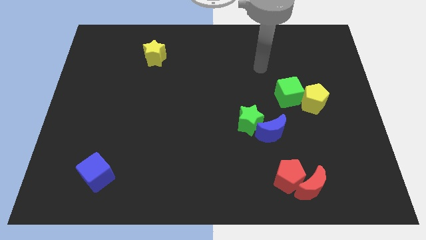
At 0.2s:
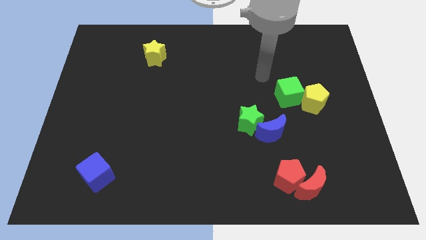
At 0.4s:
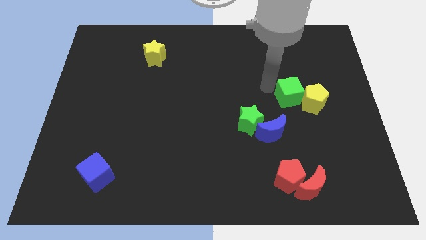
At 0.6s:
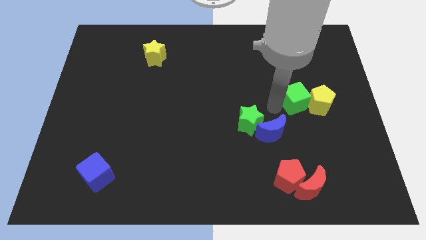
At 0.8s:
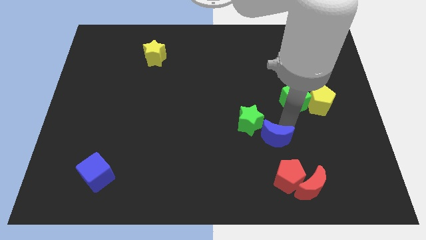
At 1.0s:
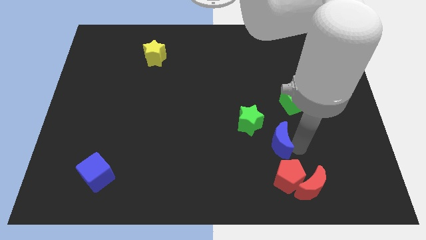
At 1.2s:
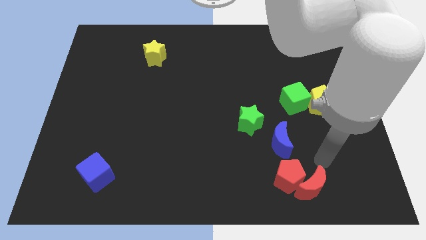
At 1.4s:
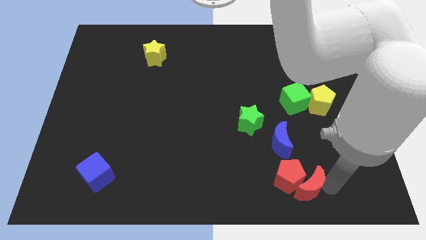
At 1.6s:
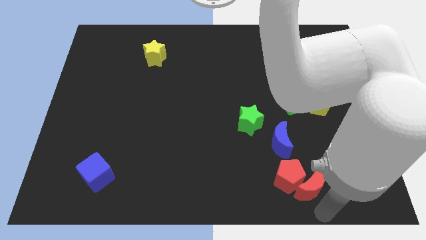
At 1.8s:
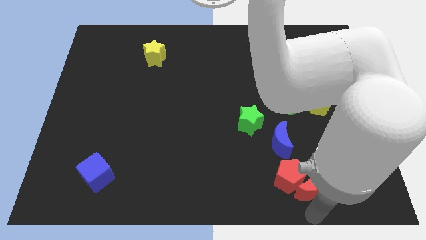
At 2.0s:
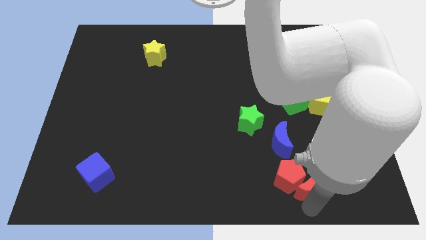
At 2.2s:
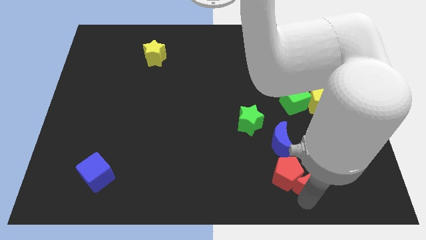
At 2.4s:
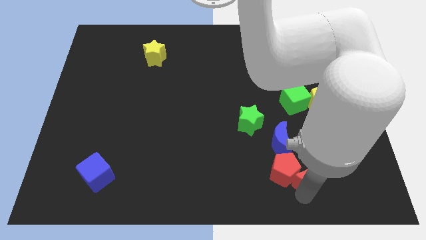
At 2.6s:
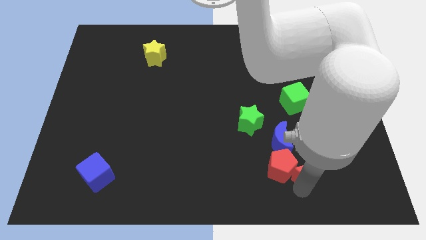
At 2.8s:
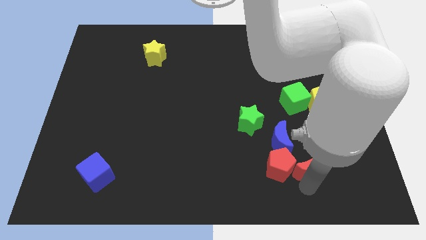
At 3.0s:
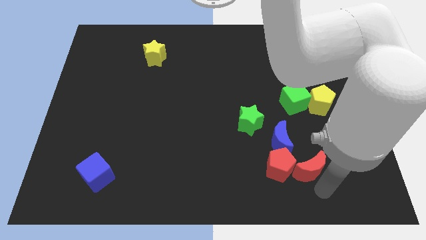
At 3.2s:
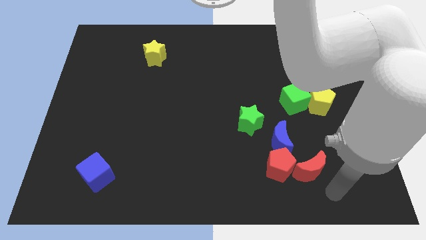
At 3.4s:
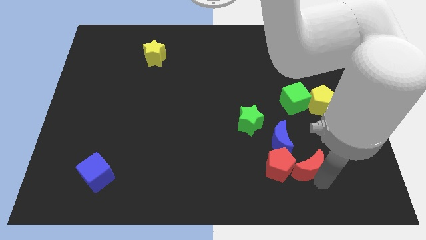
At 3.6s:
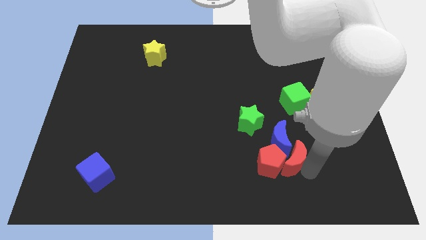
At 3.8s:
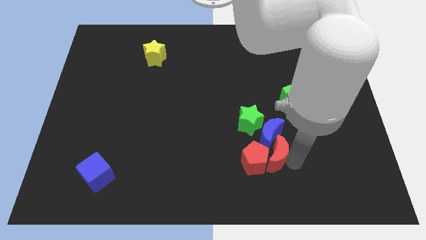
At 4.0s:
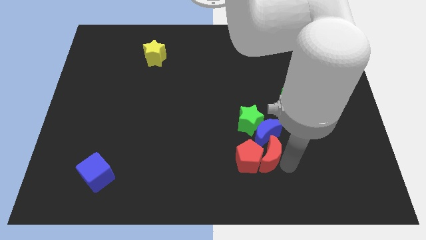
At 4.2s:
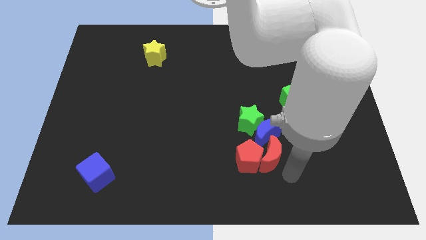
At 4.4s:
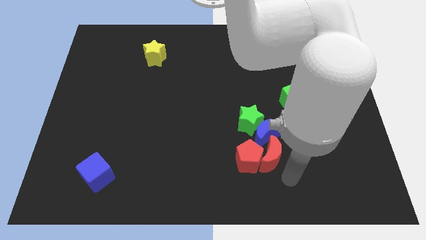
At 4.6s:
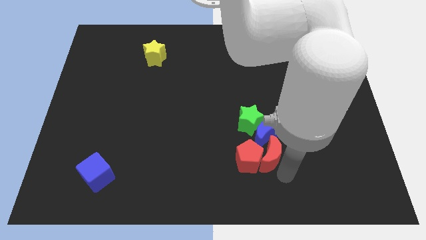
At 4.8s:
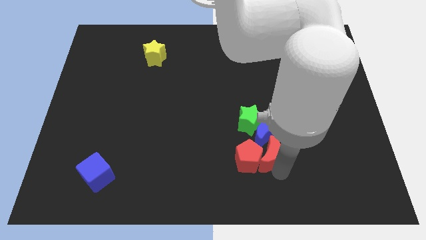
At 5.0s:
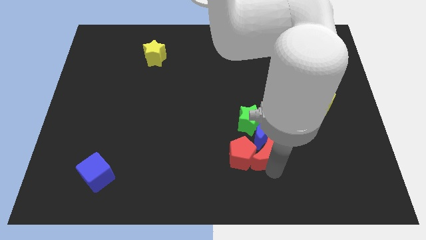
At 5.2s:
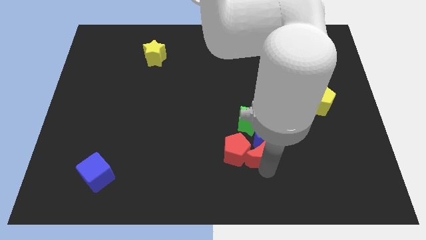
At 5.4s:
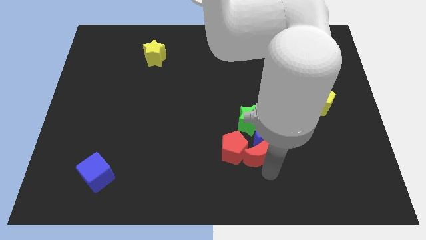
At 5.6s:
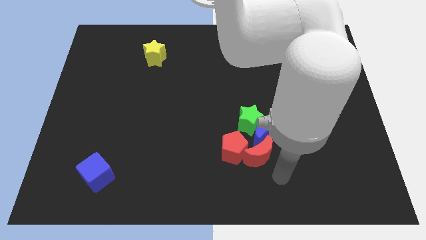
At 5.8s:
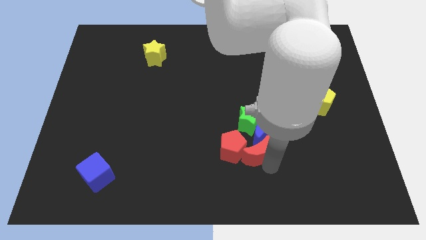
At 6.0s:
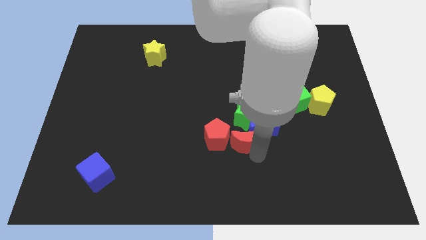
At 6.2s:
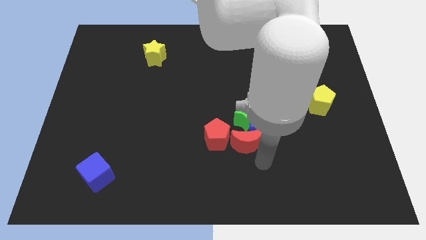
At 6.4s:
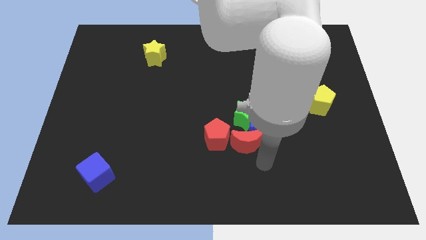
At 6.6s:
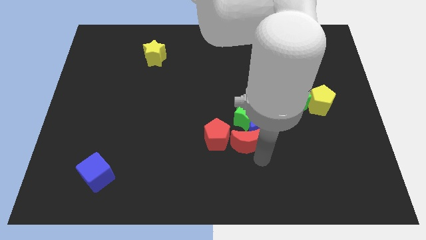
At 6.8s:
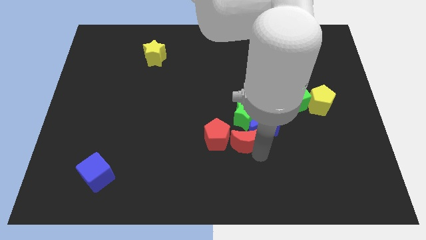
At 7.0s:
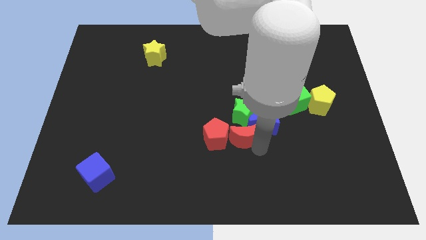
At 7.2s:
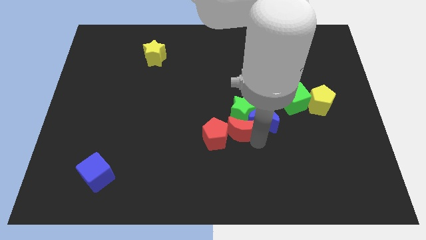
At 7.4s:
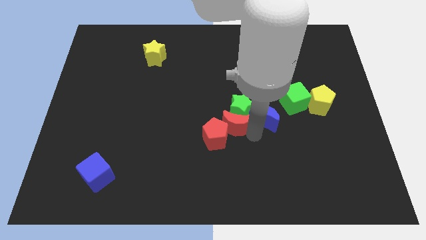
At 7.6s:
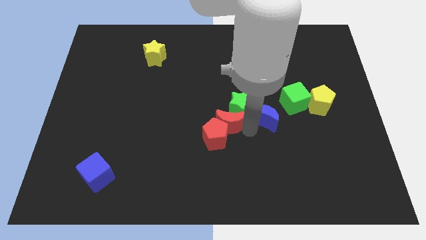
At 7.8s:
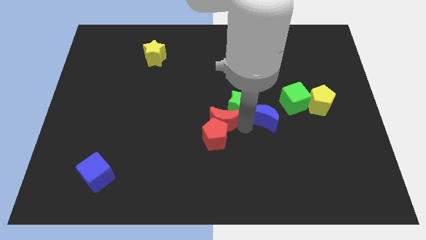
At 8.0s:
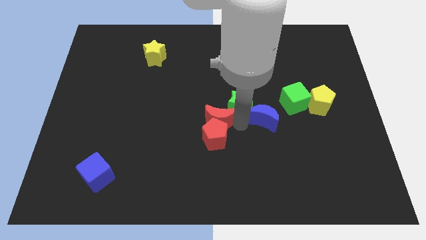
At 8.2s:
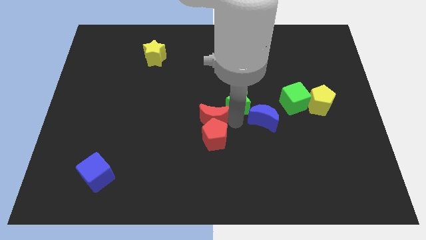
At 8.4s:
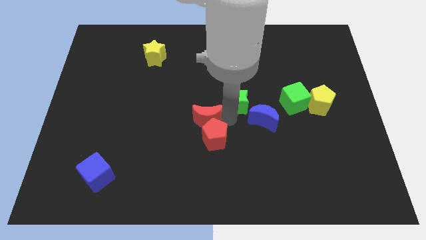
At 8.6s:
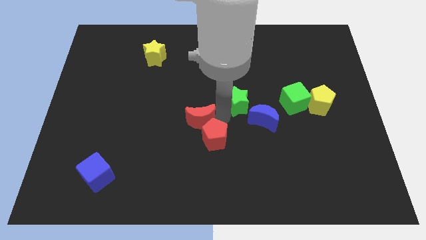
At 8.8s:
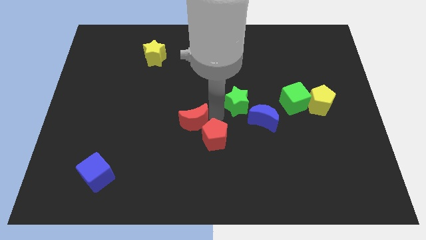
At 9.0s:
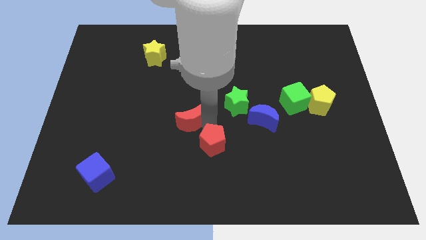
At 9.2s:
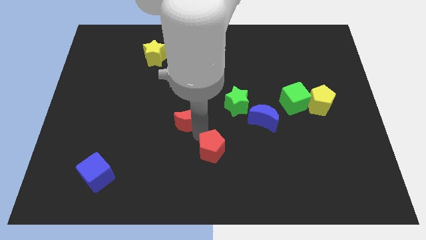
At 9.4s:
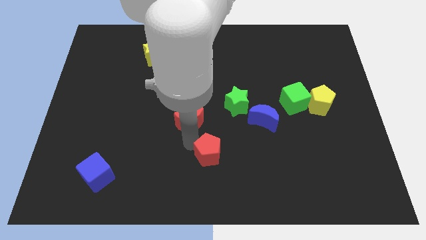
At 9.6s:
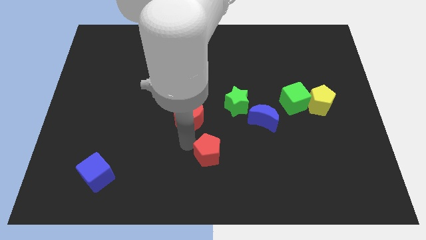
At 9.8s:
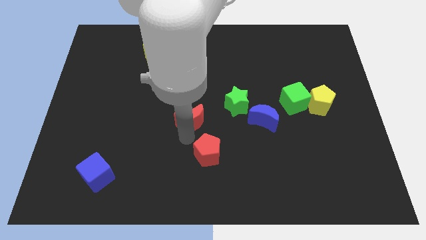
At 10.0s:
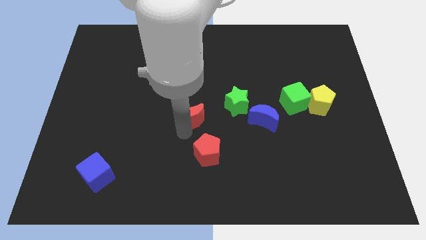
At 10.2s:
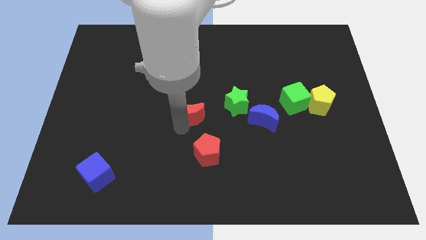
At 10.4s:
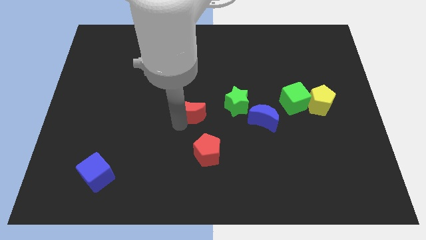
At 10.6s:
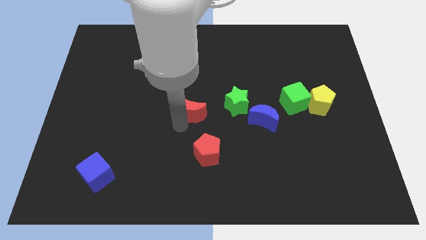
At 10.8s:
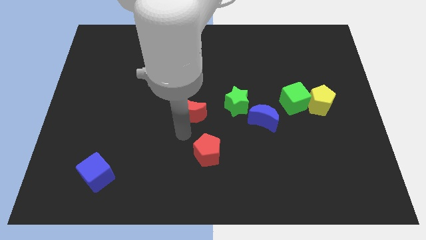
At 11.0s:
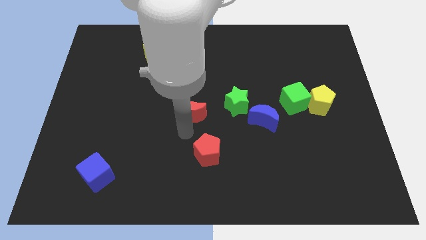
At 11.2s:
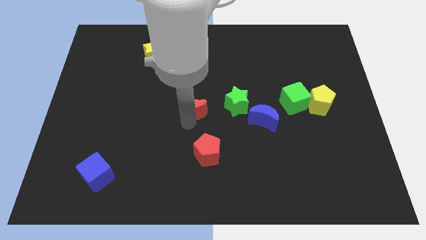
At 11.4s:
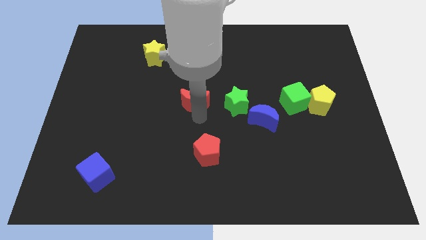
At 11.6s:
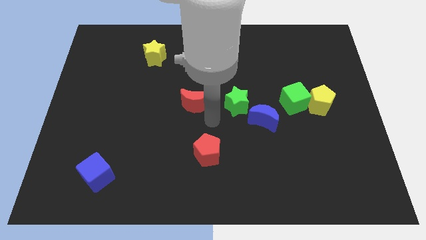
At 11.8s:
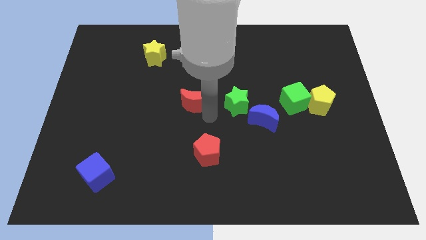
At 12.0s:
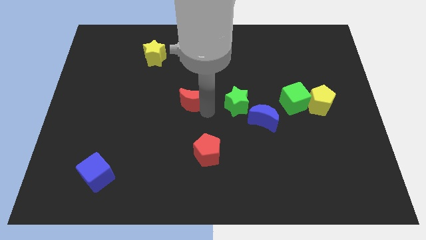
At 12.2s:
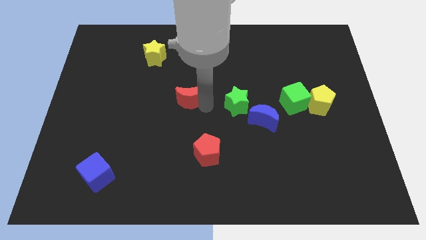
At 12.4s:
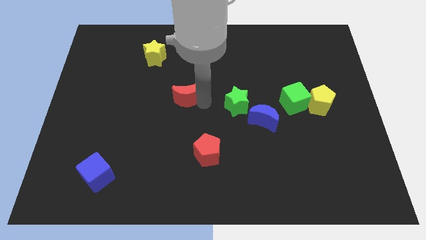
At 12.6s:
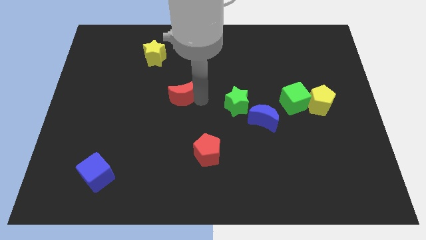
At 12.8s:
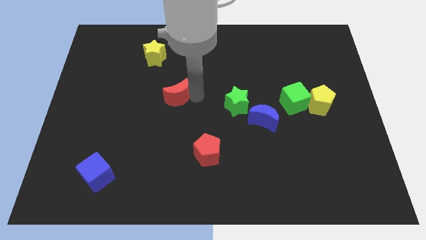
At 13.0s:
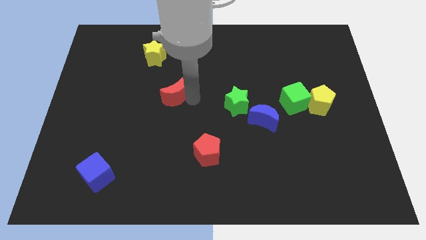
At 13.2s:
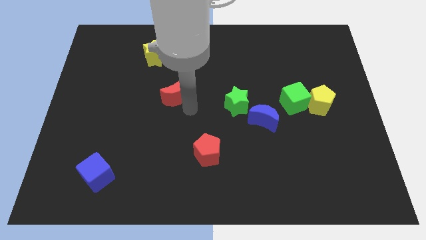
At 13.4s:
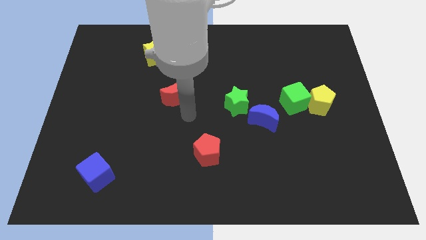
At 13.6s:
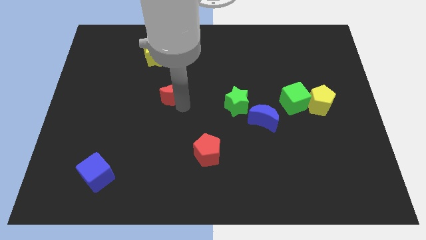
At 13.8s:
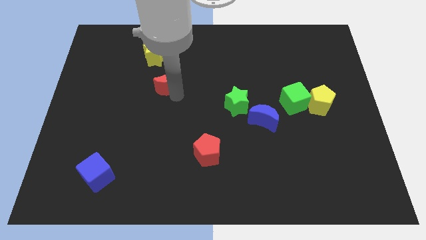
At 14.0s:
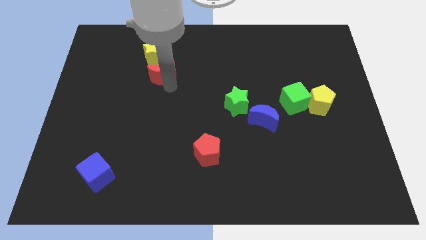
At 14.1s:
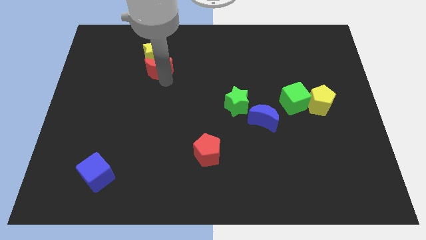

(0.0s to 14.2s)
put the red moon to the yellow star

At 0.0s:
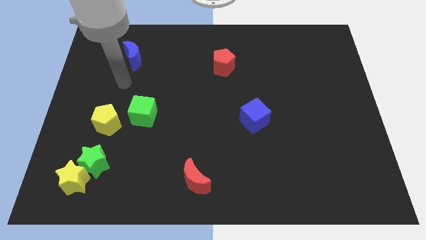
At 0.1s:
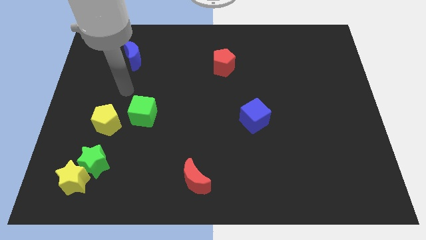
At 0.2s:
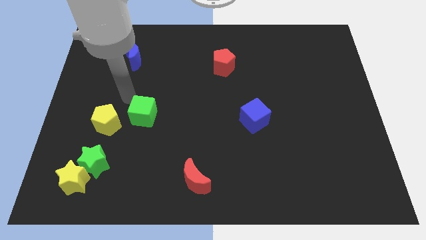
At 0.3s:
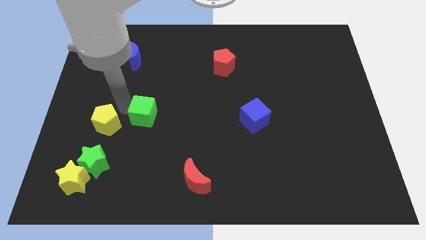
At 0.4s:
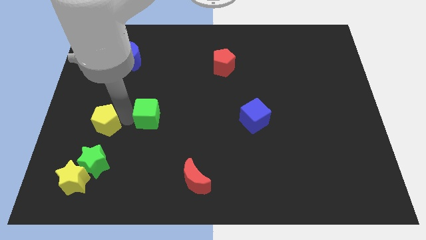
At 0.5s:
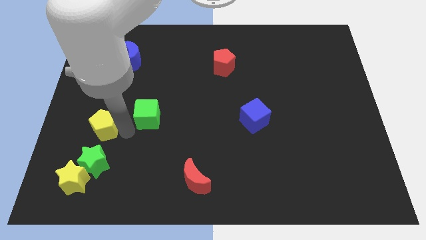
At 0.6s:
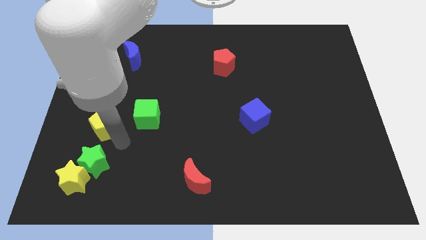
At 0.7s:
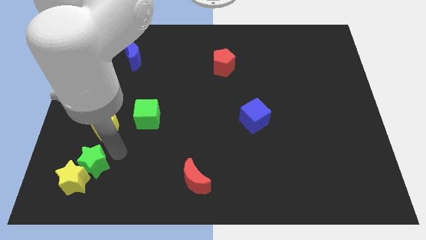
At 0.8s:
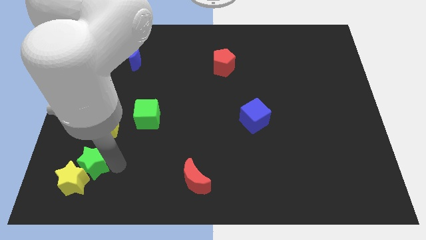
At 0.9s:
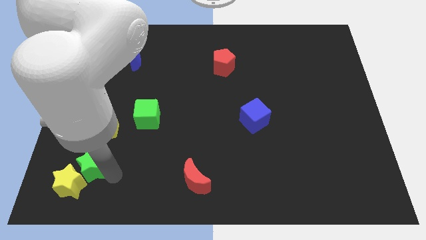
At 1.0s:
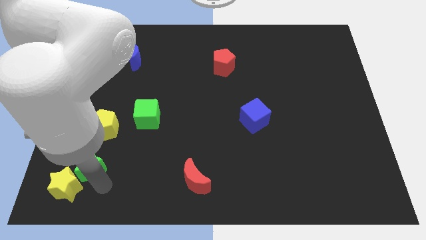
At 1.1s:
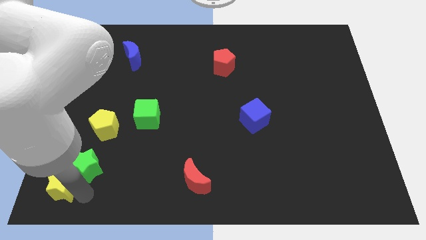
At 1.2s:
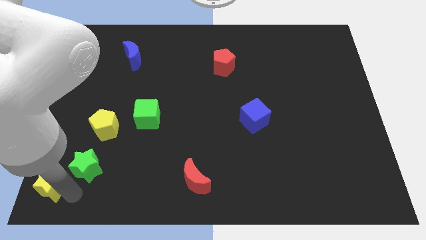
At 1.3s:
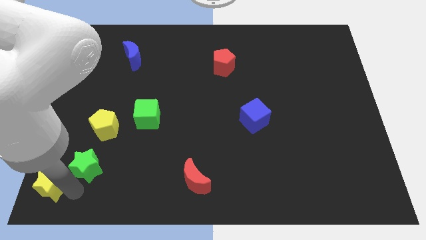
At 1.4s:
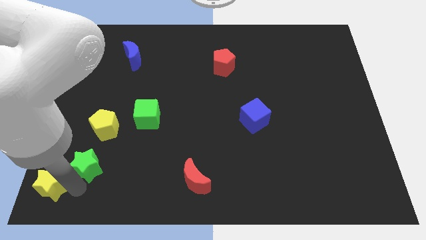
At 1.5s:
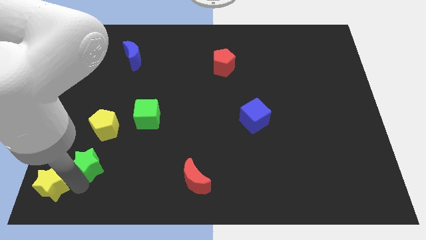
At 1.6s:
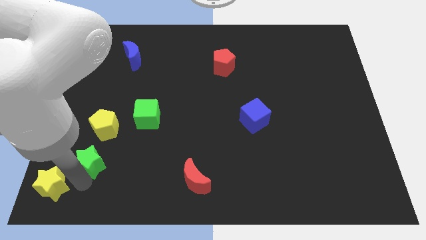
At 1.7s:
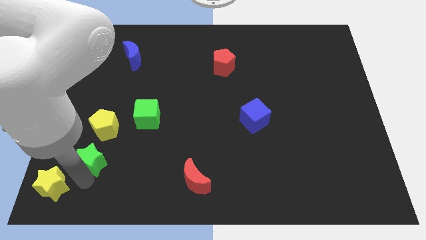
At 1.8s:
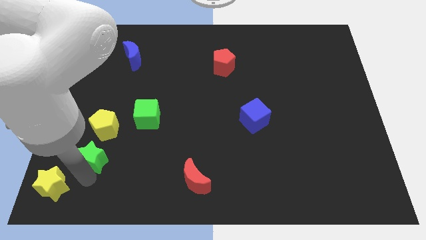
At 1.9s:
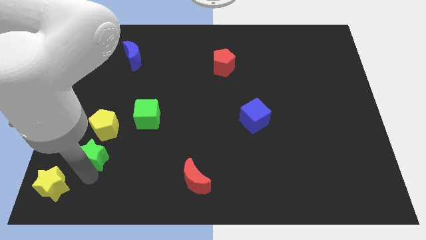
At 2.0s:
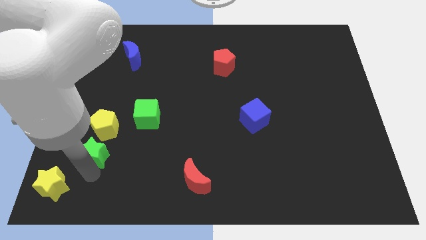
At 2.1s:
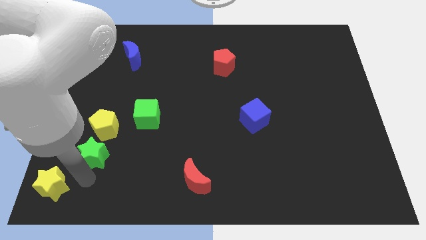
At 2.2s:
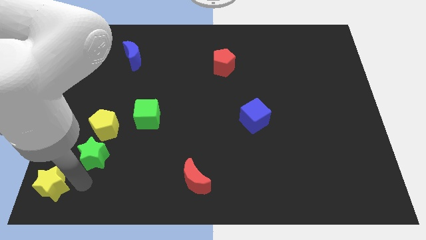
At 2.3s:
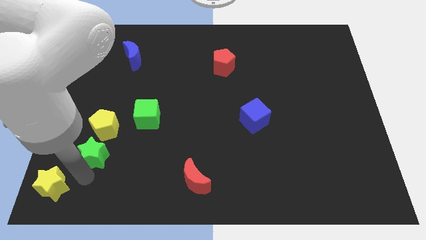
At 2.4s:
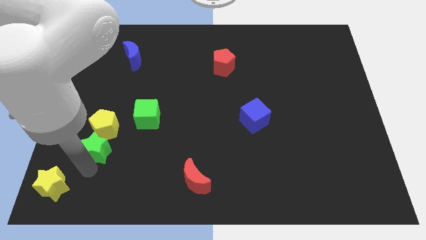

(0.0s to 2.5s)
push the green star towards the yellow pentagon
